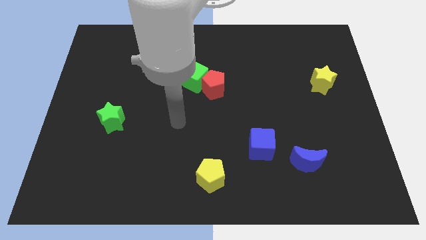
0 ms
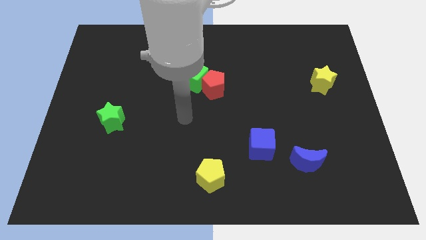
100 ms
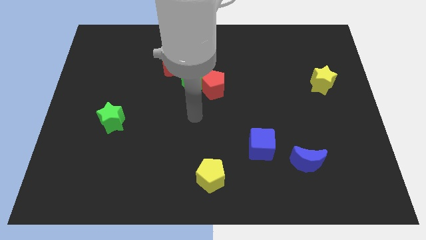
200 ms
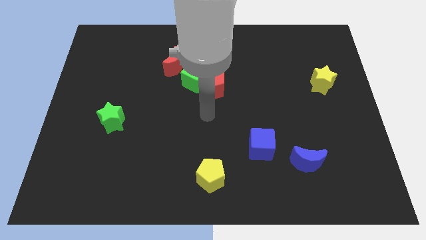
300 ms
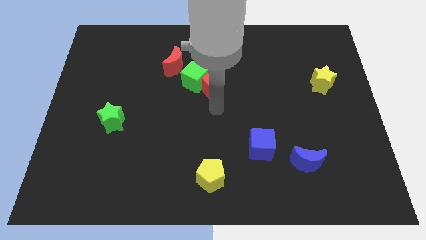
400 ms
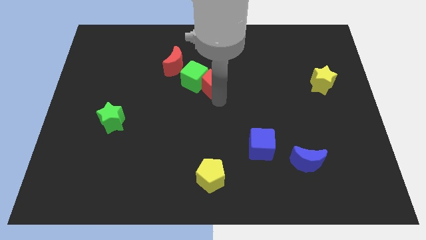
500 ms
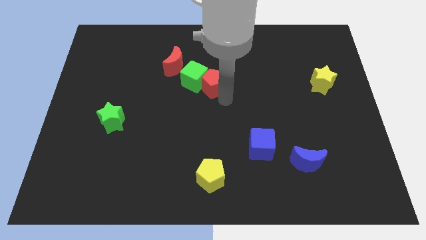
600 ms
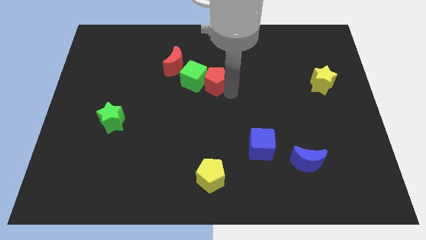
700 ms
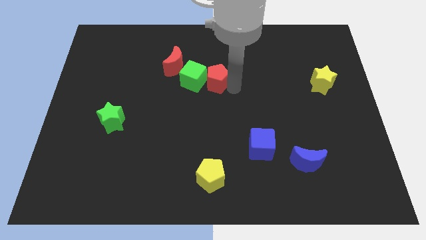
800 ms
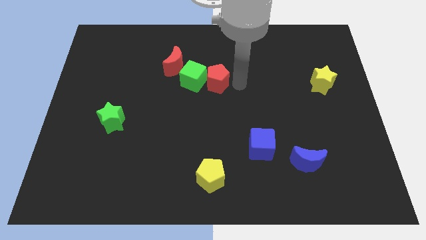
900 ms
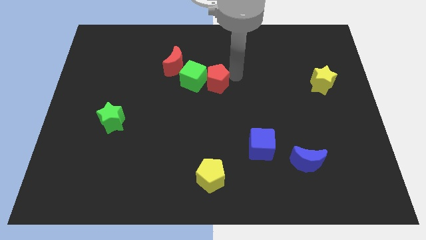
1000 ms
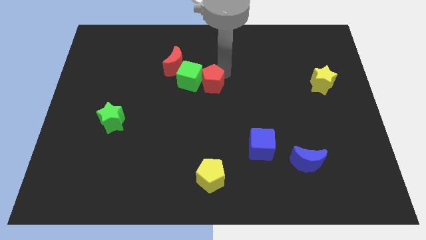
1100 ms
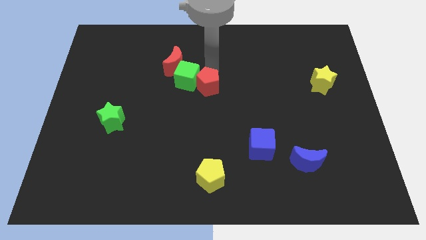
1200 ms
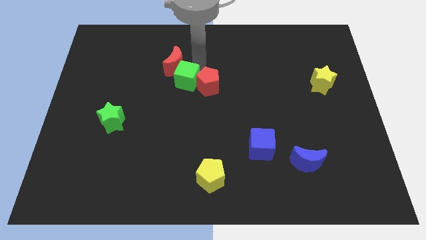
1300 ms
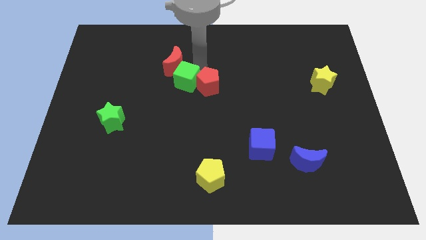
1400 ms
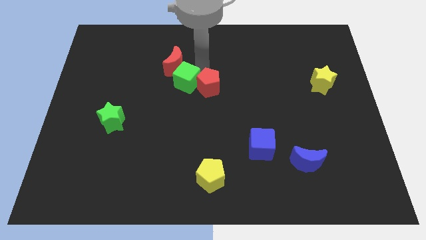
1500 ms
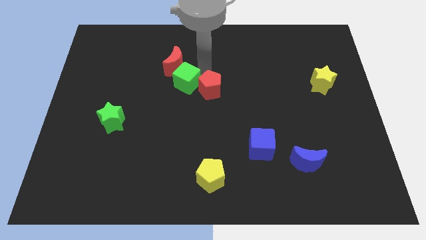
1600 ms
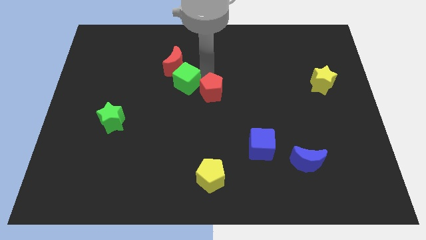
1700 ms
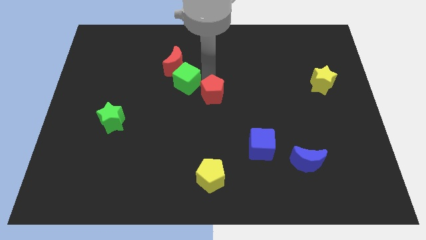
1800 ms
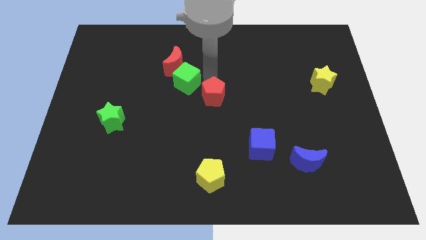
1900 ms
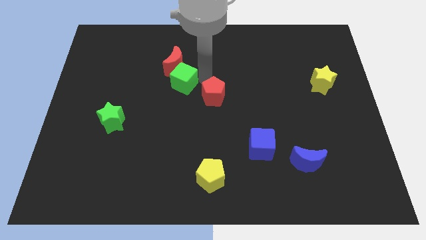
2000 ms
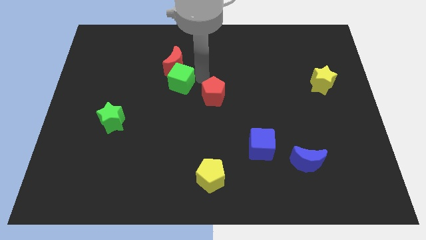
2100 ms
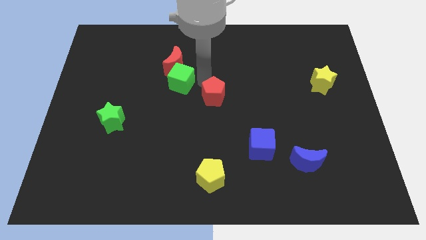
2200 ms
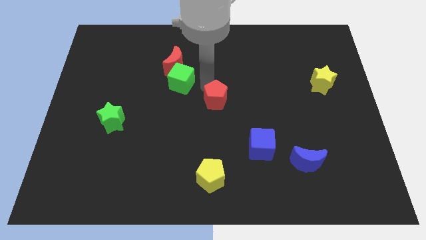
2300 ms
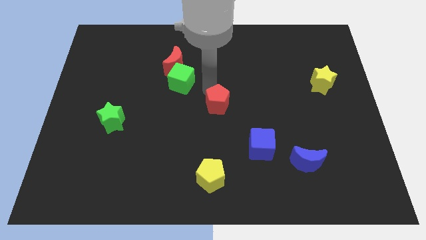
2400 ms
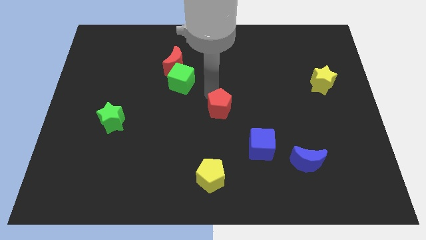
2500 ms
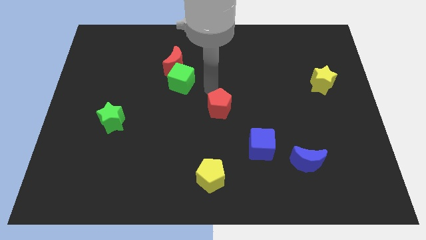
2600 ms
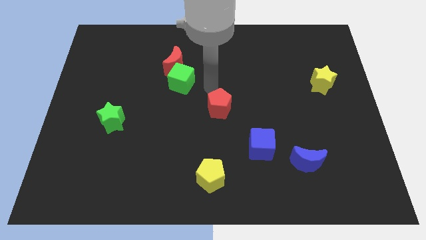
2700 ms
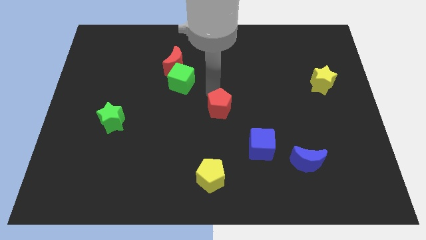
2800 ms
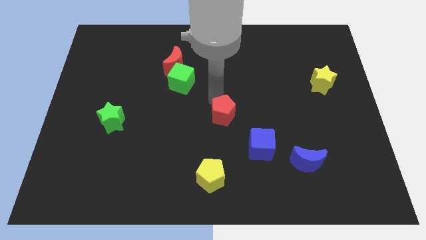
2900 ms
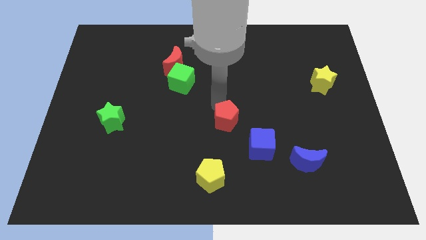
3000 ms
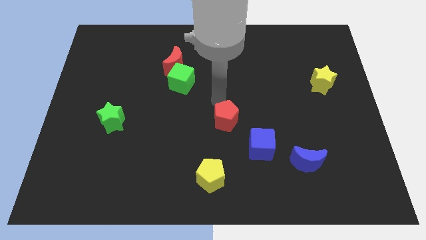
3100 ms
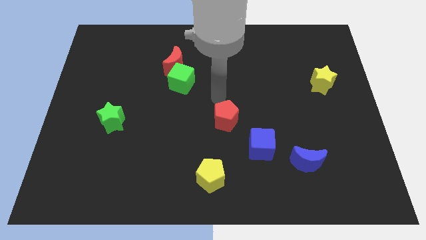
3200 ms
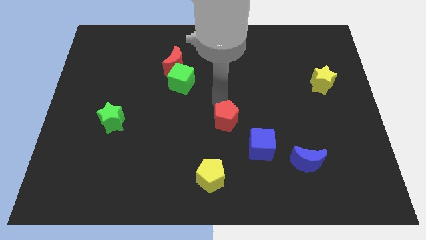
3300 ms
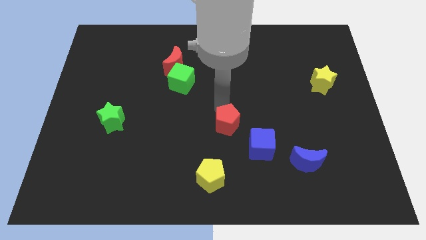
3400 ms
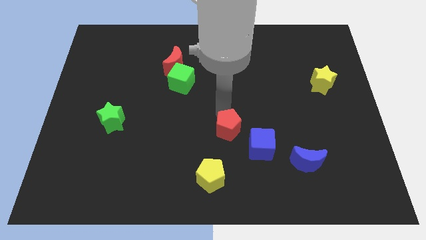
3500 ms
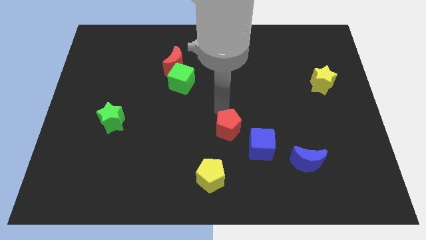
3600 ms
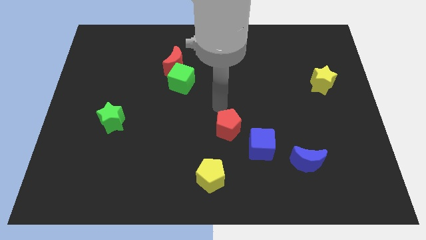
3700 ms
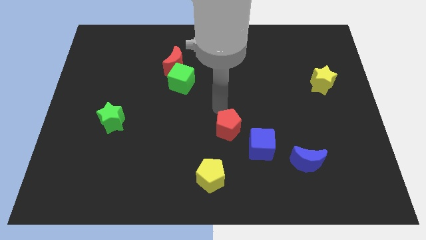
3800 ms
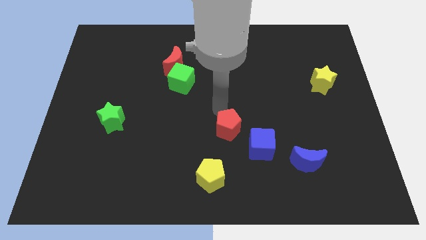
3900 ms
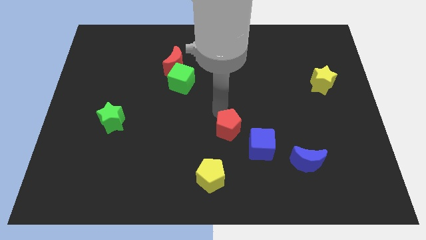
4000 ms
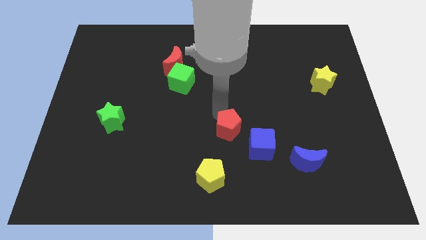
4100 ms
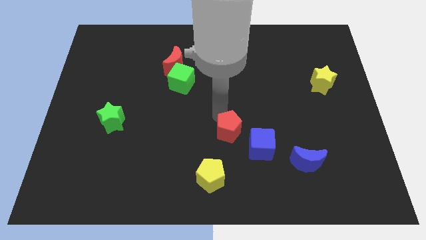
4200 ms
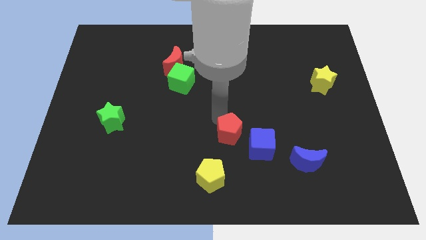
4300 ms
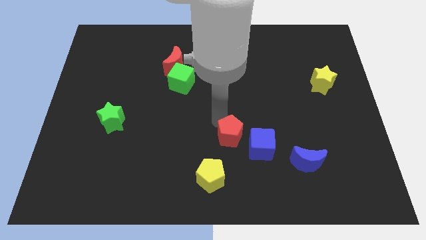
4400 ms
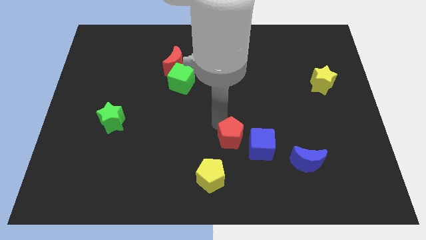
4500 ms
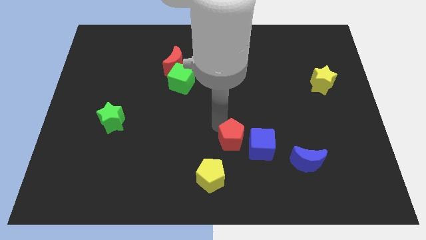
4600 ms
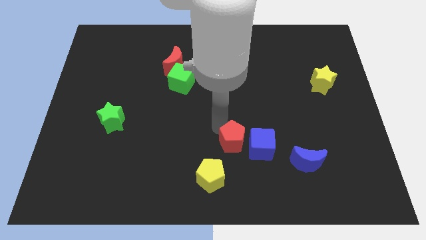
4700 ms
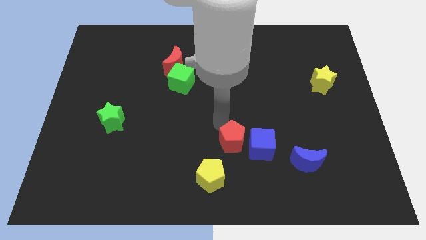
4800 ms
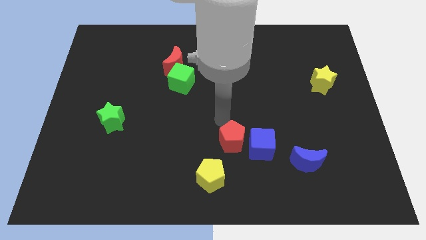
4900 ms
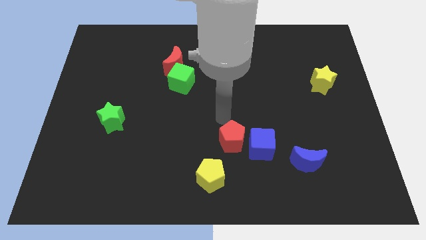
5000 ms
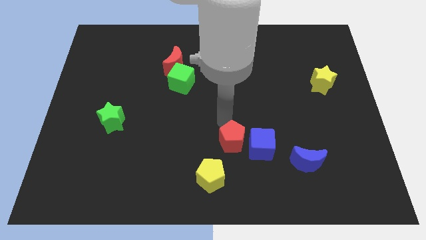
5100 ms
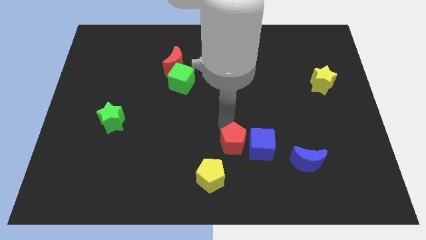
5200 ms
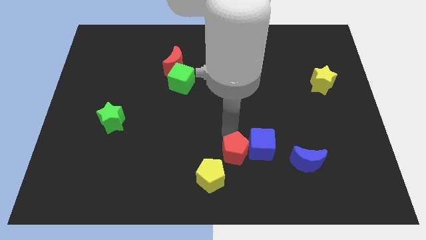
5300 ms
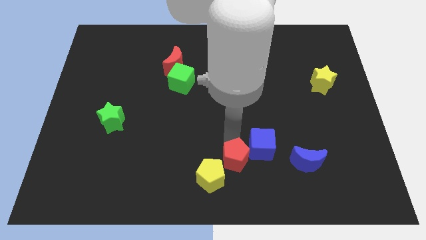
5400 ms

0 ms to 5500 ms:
push the red pentagon to the bottom
